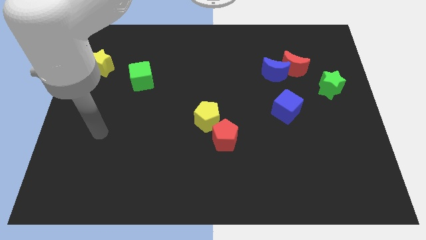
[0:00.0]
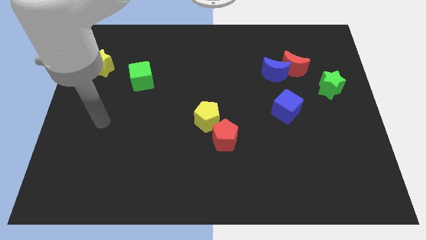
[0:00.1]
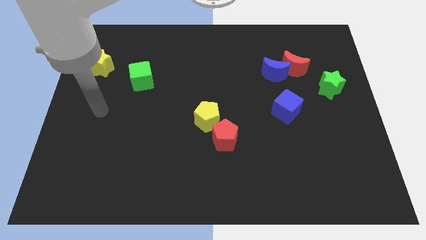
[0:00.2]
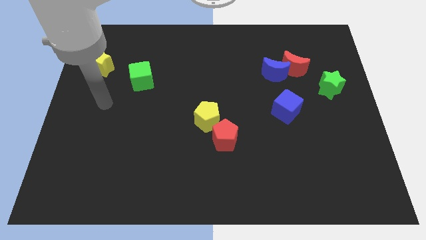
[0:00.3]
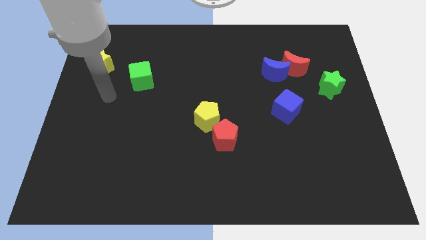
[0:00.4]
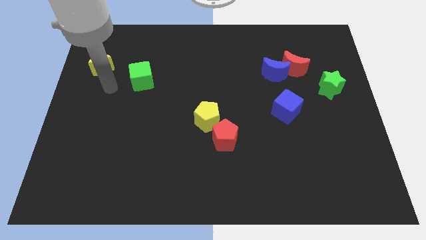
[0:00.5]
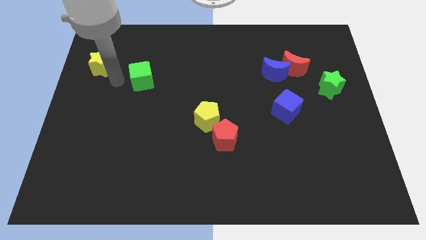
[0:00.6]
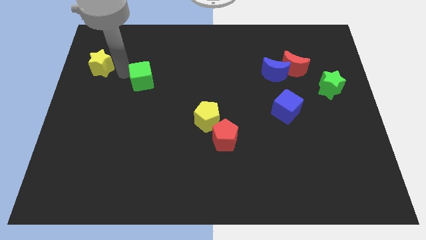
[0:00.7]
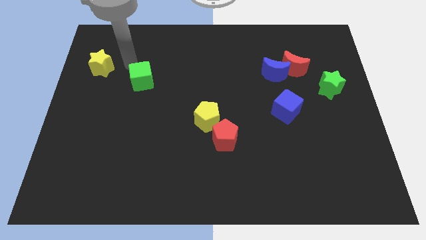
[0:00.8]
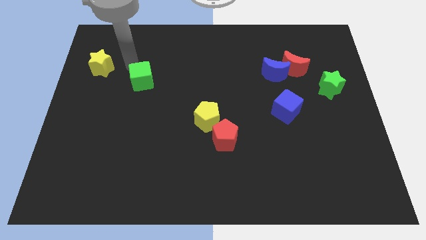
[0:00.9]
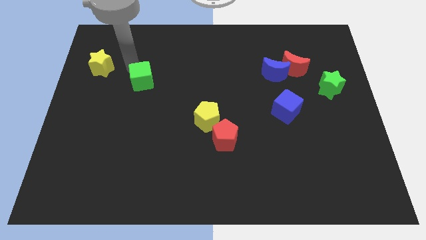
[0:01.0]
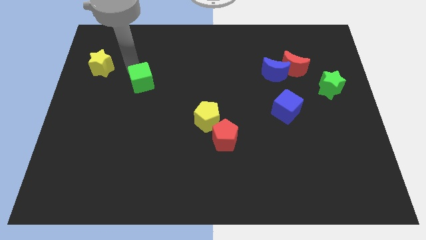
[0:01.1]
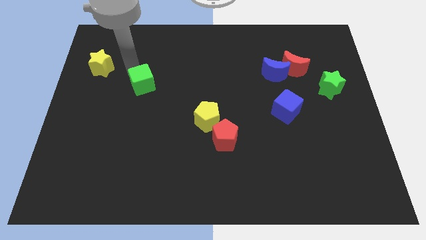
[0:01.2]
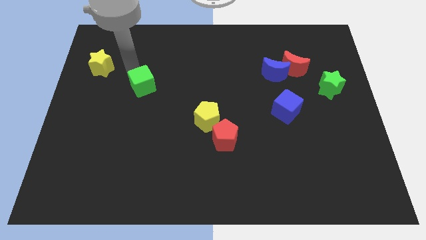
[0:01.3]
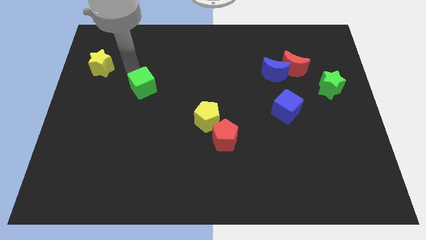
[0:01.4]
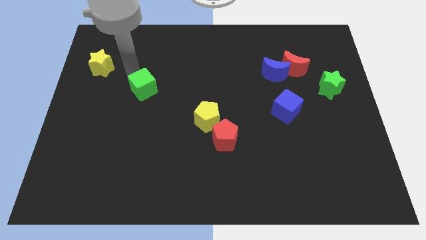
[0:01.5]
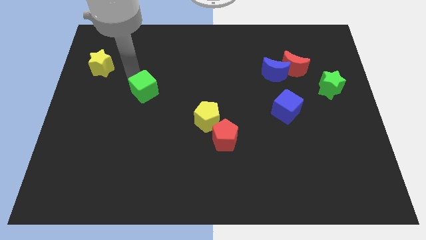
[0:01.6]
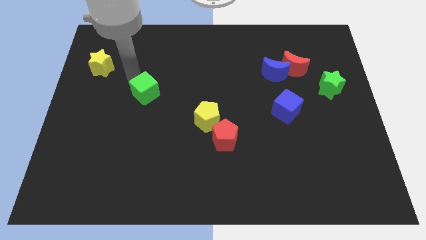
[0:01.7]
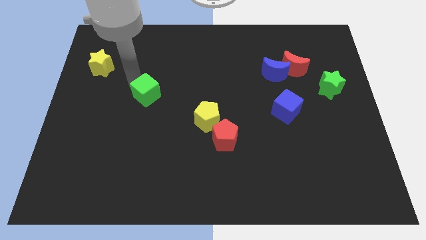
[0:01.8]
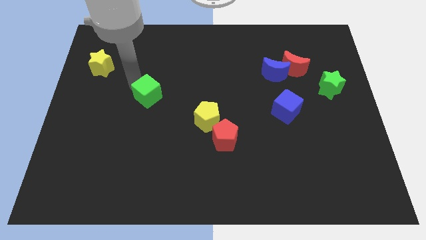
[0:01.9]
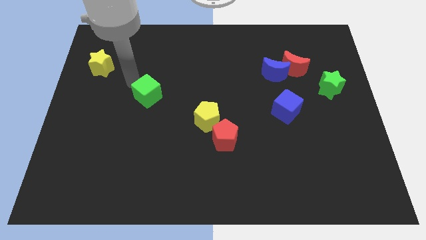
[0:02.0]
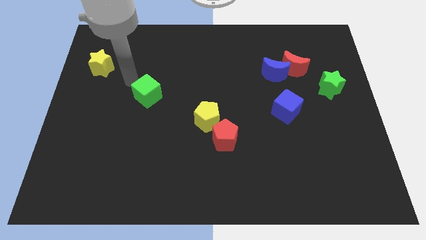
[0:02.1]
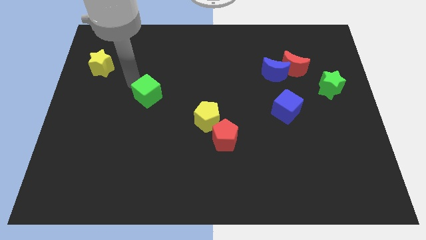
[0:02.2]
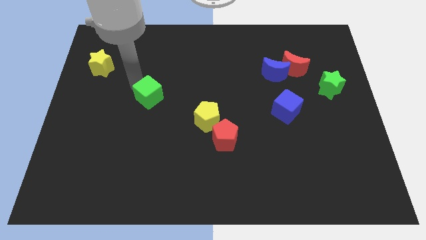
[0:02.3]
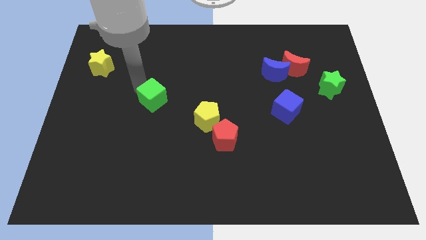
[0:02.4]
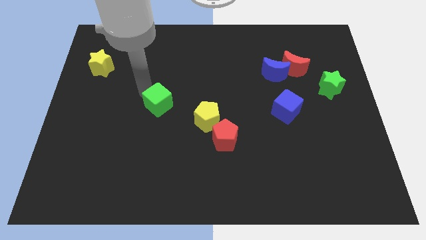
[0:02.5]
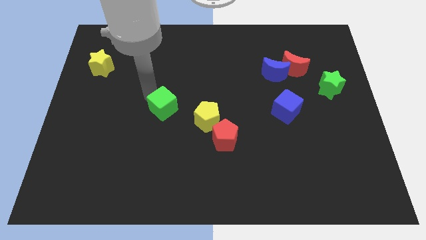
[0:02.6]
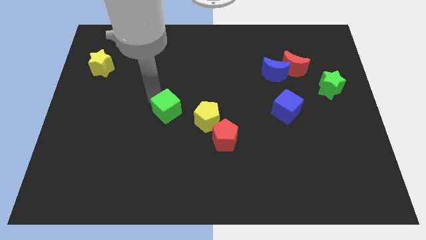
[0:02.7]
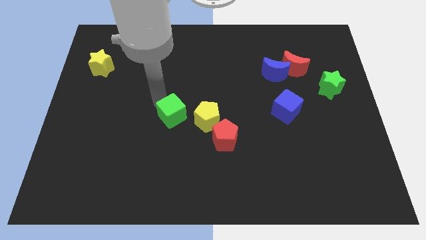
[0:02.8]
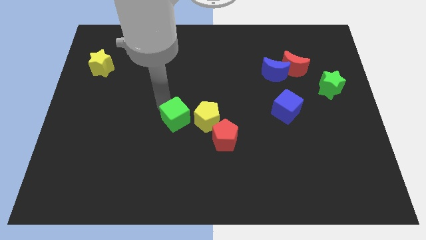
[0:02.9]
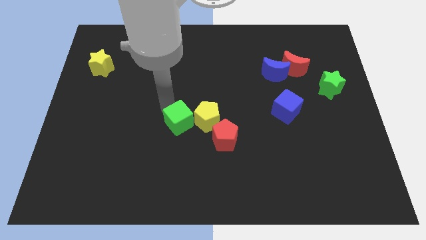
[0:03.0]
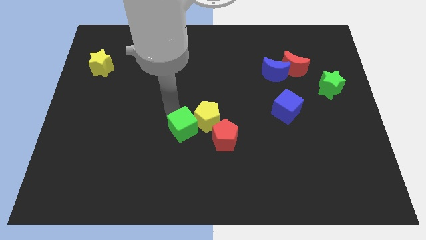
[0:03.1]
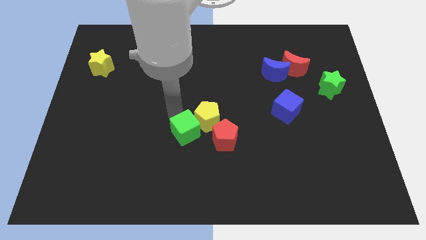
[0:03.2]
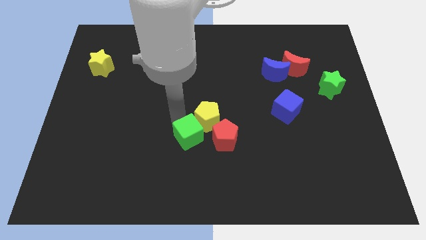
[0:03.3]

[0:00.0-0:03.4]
slide the green cube diagonally down and to the right

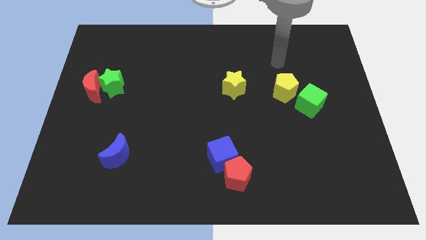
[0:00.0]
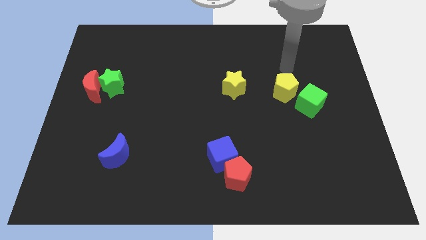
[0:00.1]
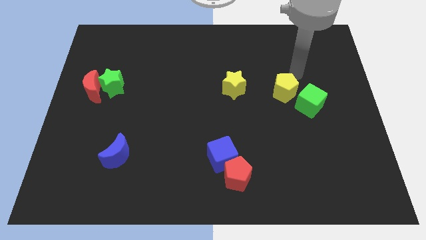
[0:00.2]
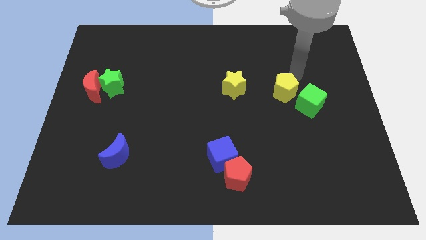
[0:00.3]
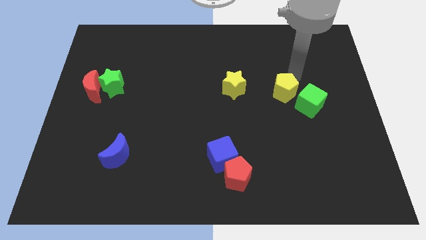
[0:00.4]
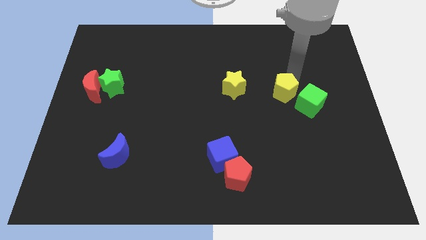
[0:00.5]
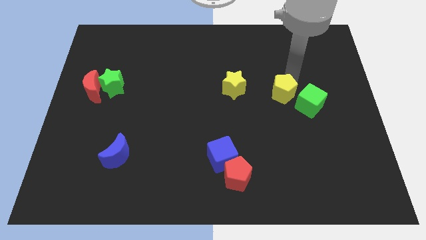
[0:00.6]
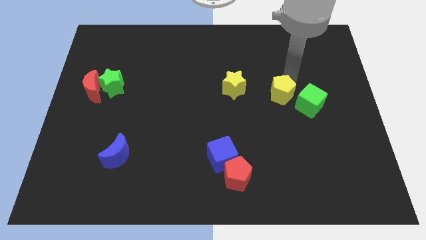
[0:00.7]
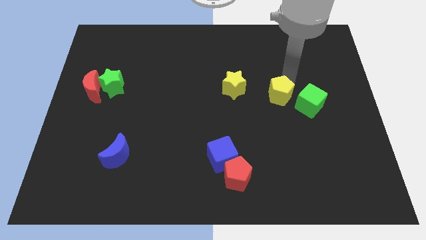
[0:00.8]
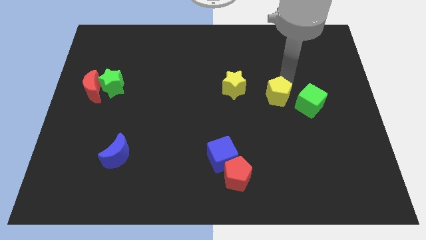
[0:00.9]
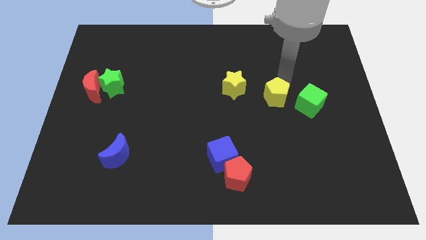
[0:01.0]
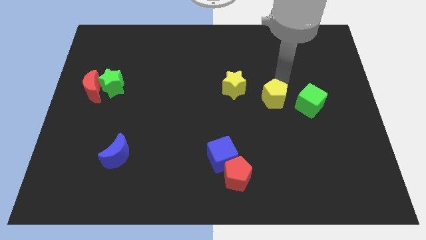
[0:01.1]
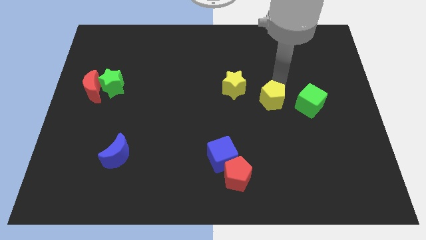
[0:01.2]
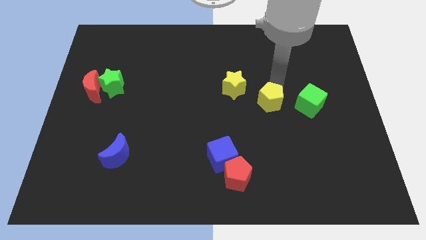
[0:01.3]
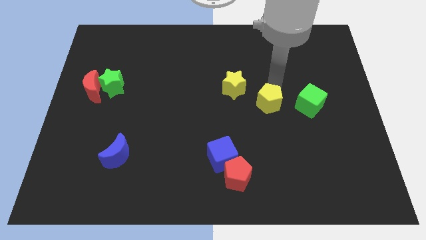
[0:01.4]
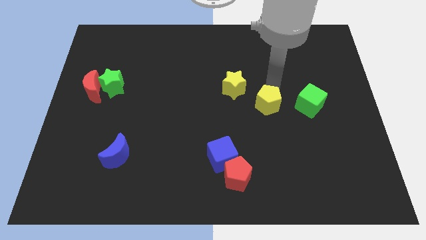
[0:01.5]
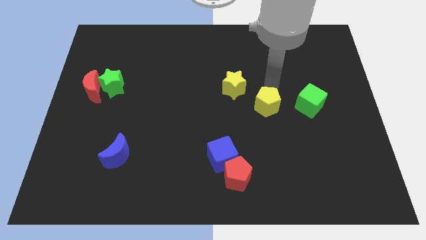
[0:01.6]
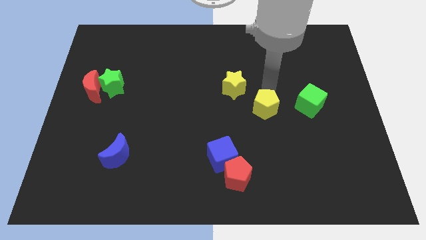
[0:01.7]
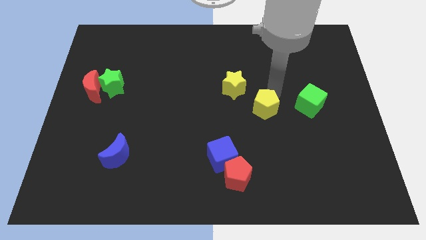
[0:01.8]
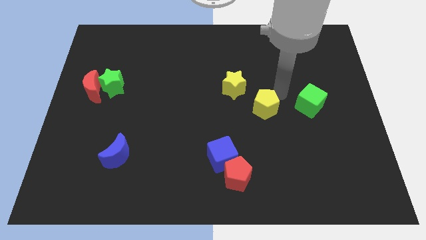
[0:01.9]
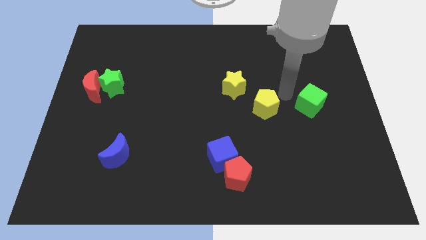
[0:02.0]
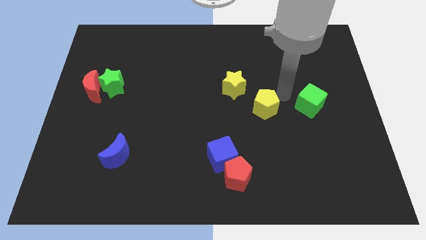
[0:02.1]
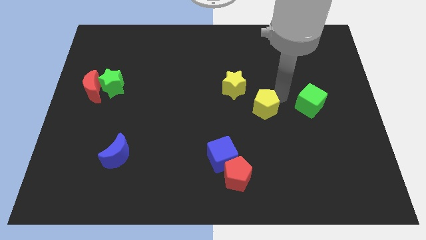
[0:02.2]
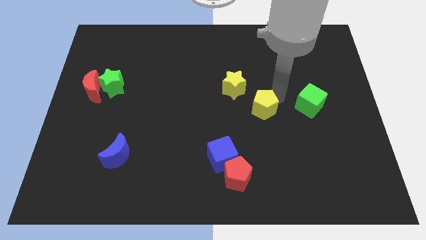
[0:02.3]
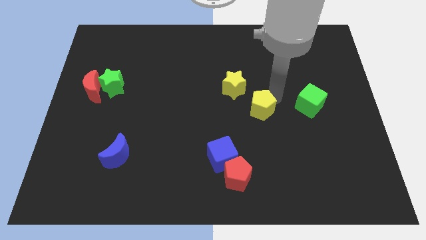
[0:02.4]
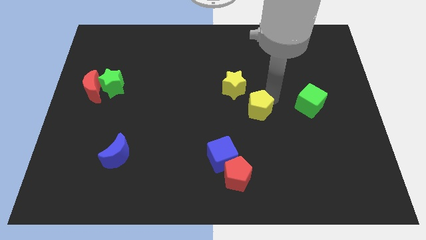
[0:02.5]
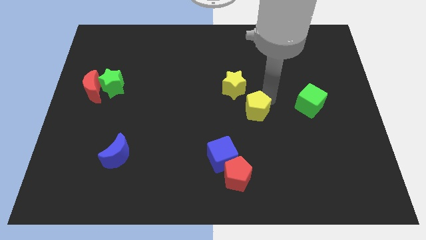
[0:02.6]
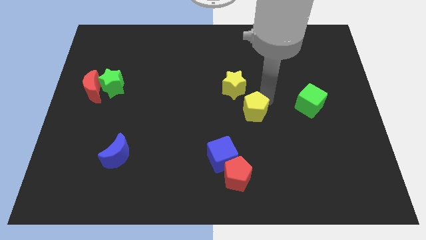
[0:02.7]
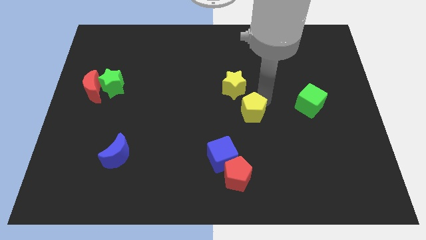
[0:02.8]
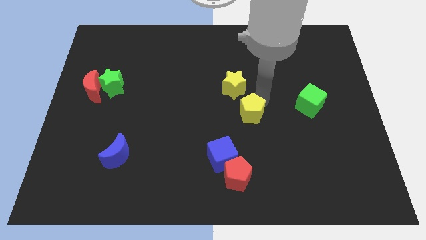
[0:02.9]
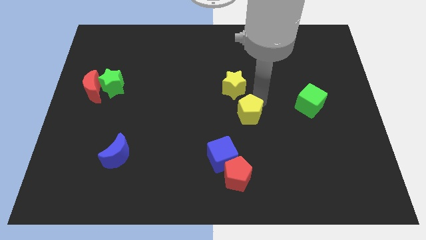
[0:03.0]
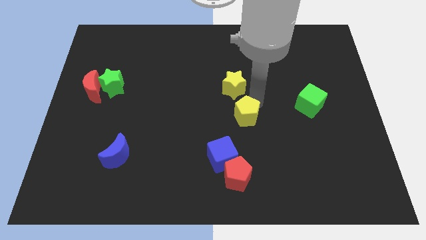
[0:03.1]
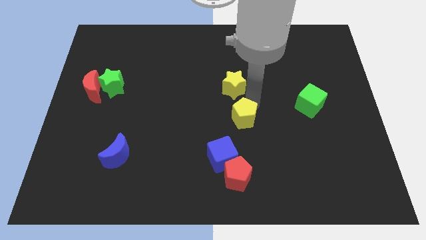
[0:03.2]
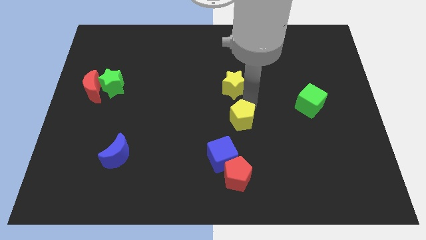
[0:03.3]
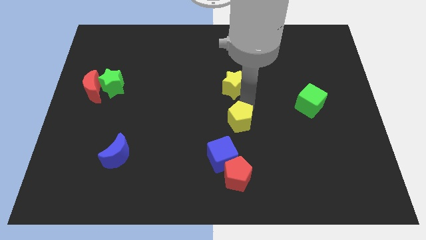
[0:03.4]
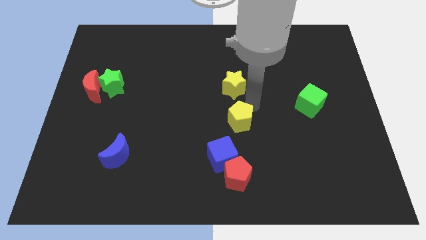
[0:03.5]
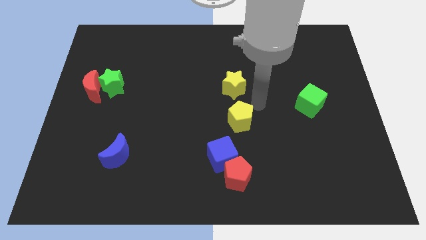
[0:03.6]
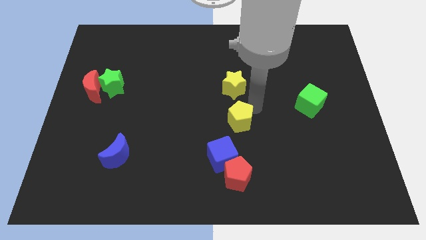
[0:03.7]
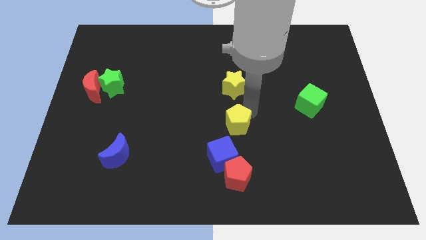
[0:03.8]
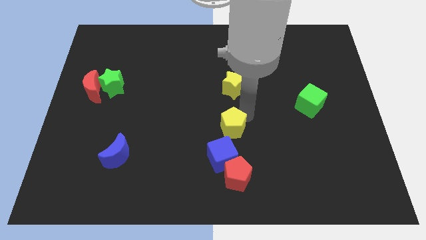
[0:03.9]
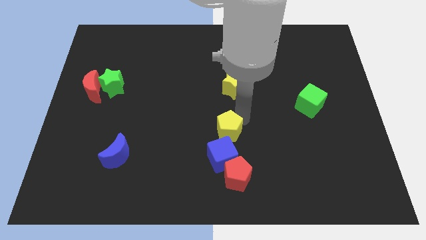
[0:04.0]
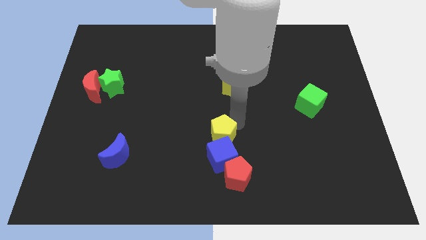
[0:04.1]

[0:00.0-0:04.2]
push the yellow pentagon diagonally down and left

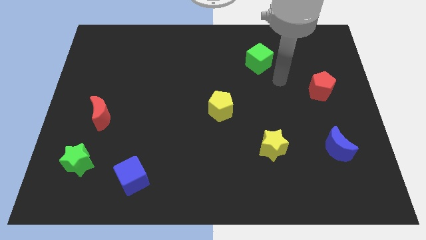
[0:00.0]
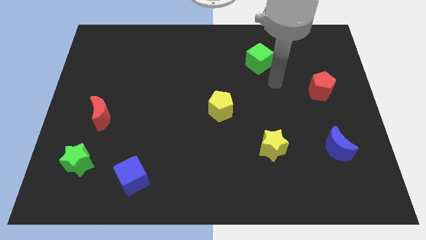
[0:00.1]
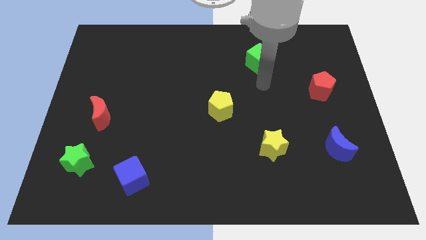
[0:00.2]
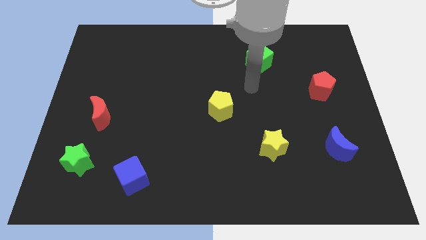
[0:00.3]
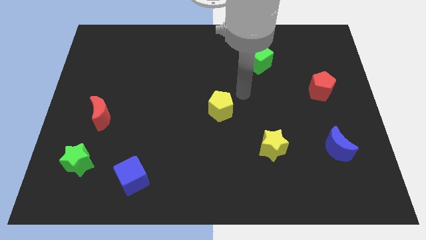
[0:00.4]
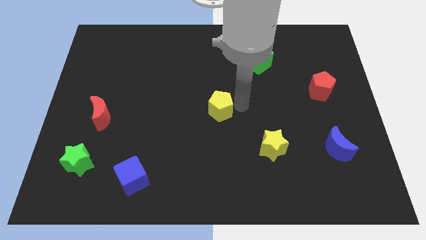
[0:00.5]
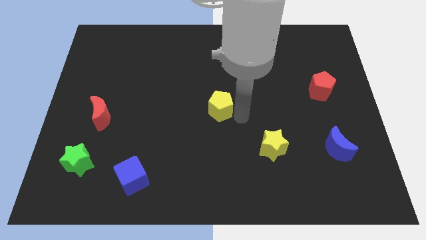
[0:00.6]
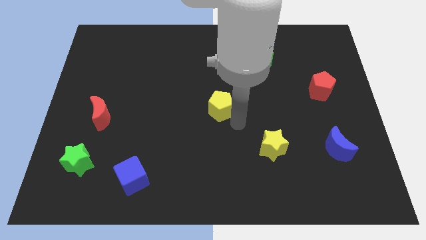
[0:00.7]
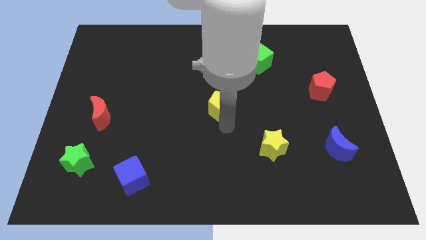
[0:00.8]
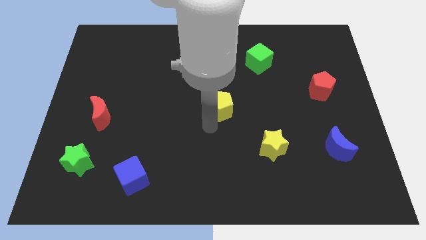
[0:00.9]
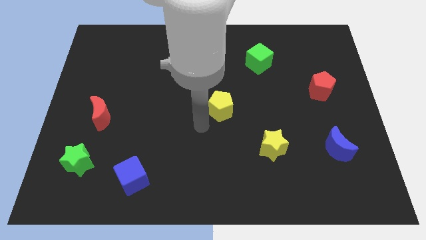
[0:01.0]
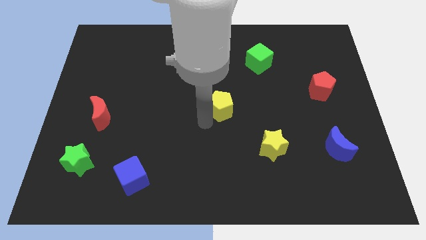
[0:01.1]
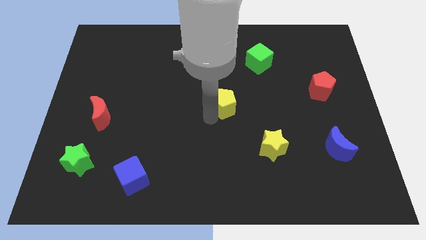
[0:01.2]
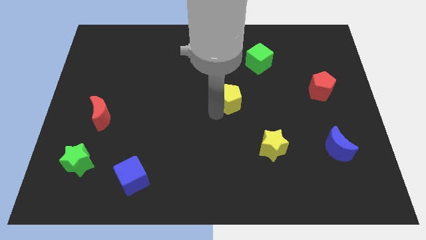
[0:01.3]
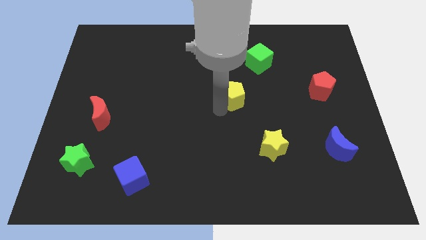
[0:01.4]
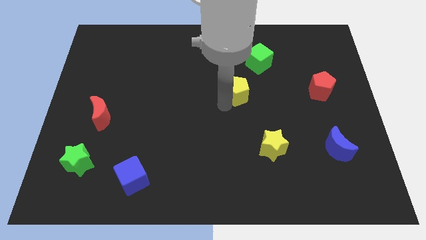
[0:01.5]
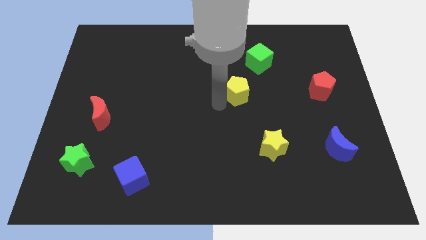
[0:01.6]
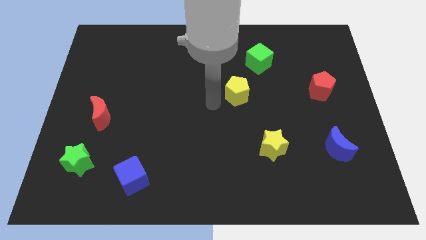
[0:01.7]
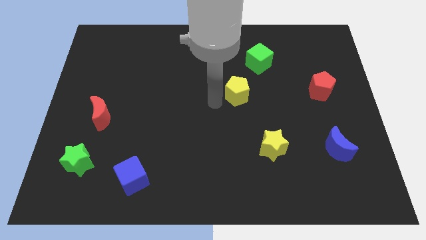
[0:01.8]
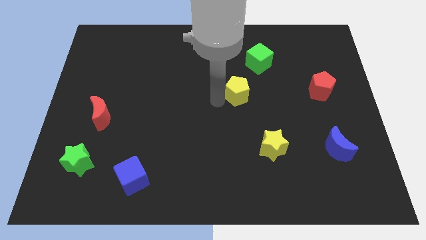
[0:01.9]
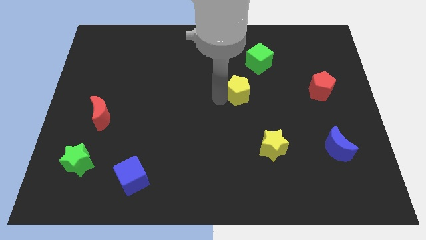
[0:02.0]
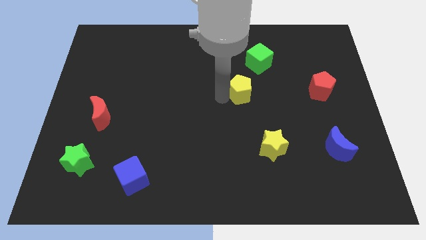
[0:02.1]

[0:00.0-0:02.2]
slightly move the yellow pentagon up and then right
